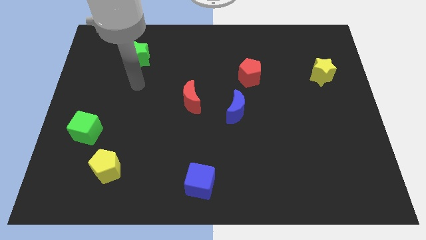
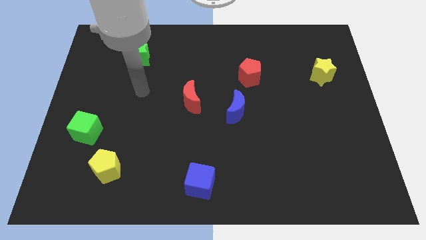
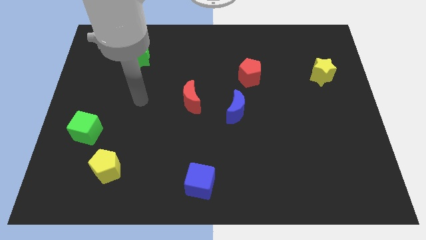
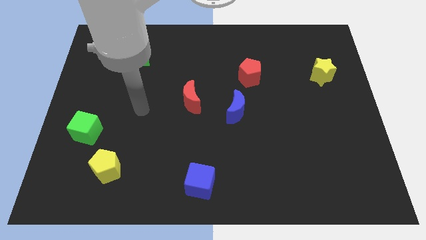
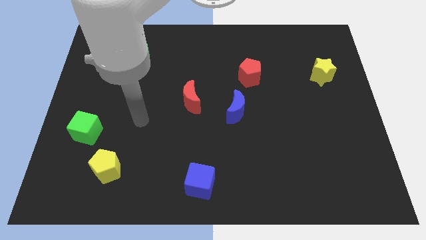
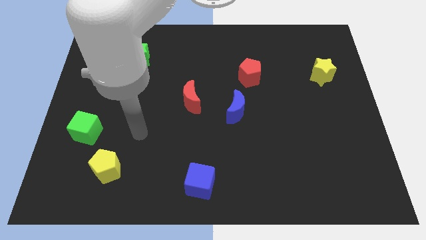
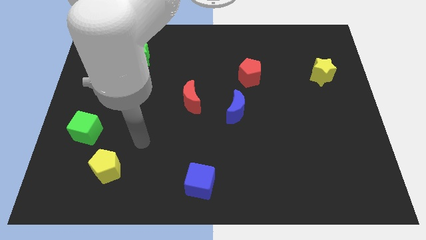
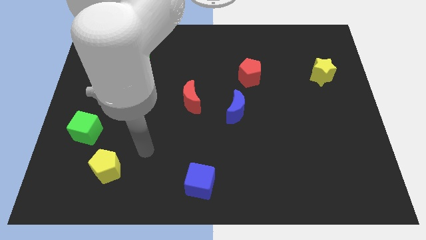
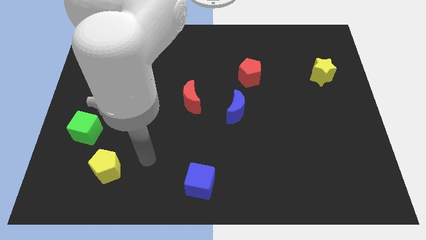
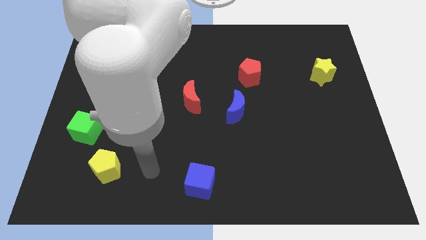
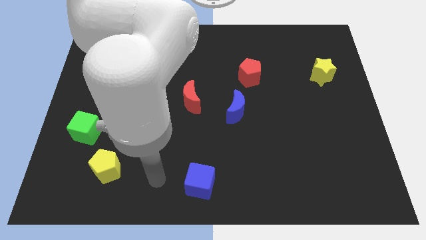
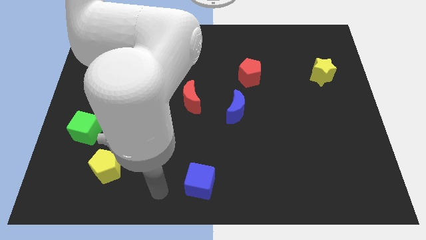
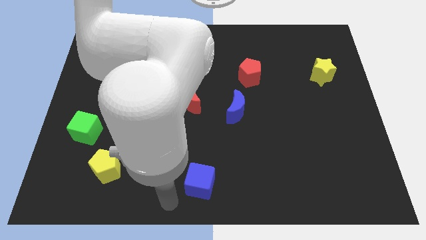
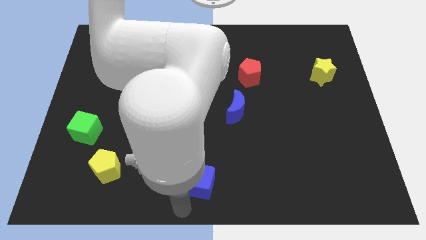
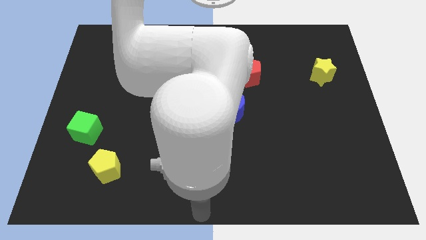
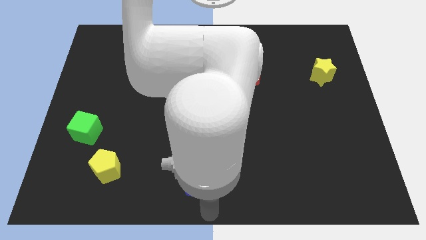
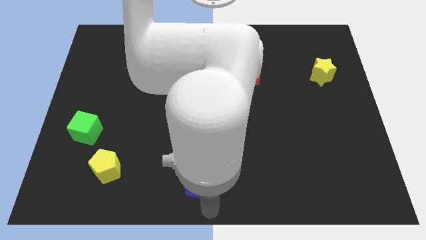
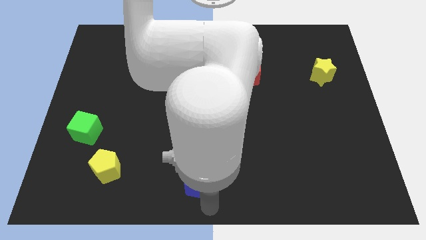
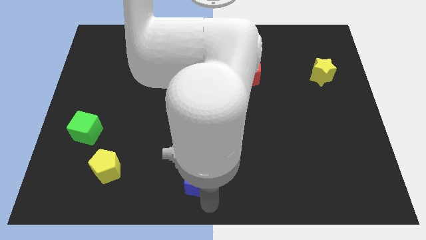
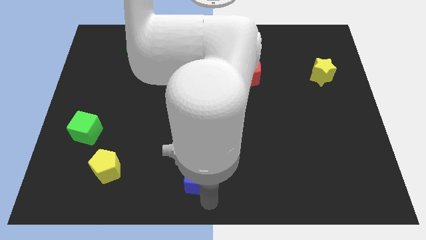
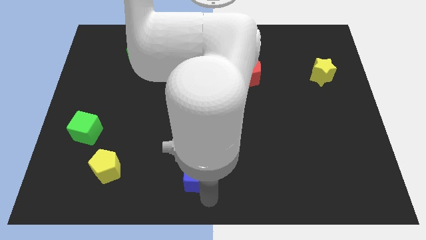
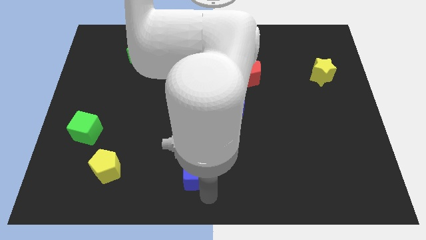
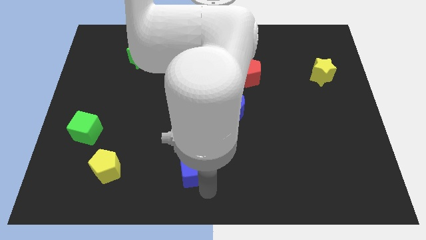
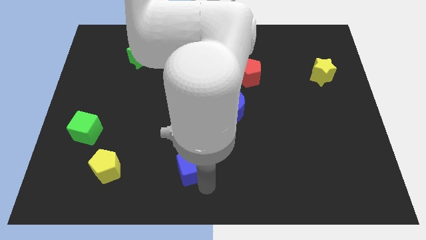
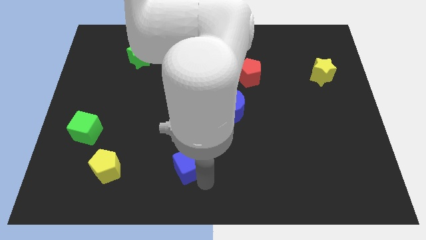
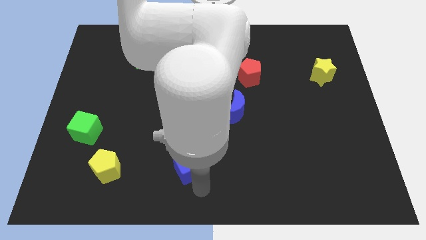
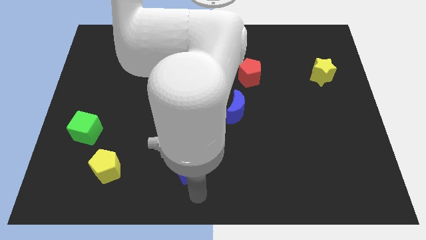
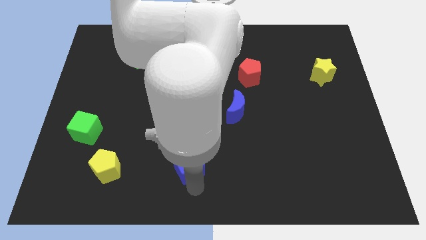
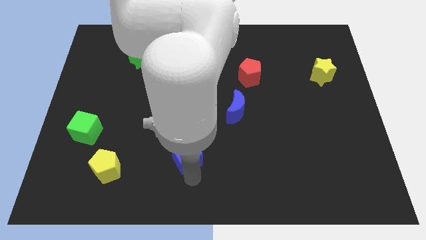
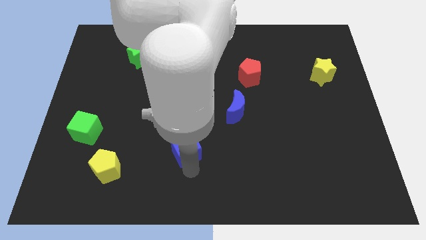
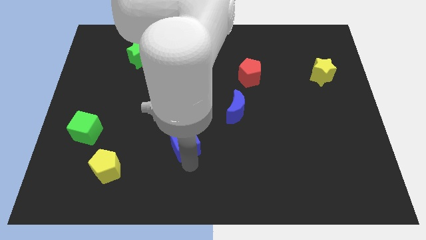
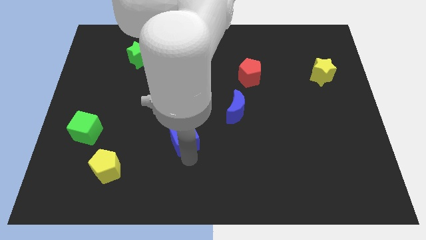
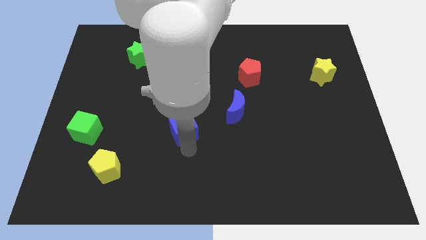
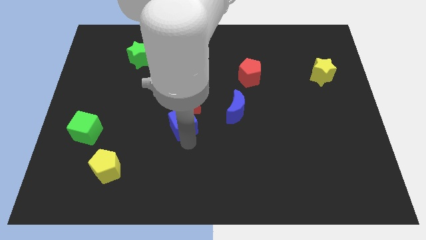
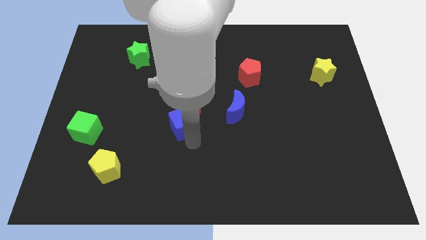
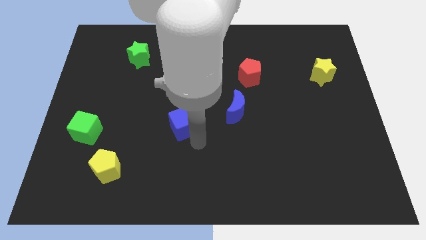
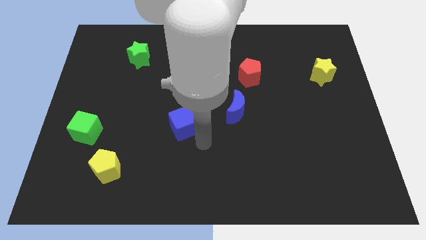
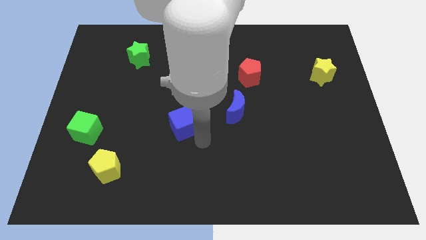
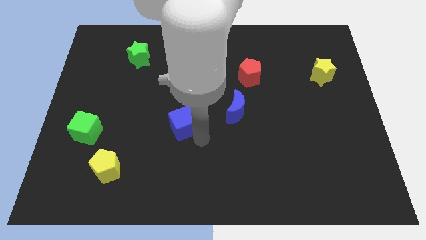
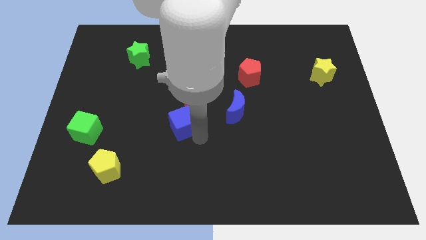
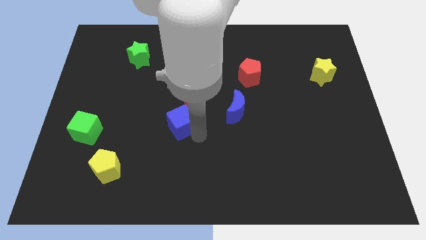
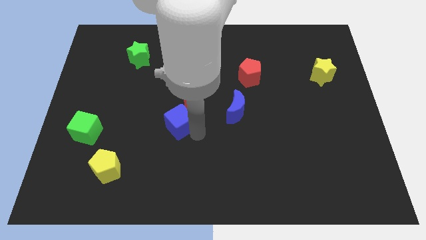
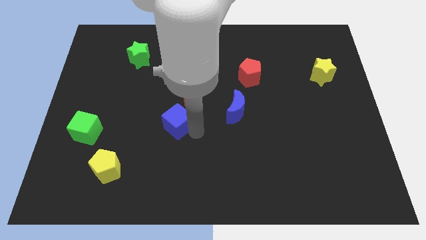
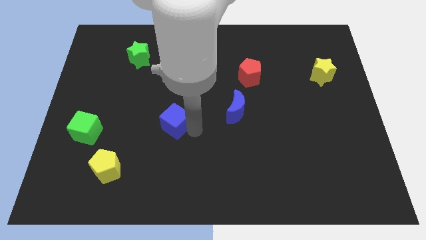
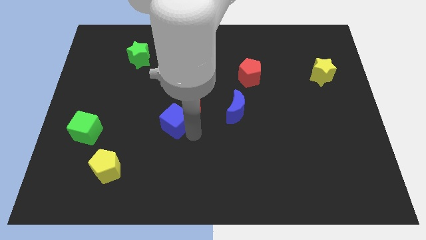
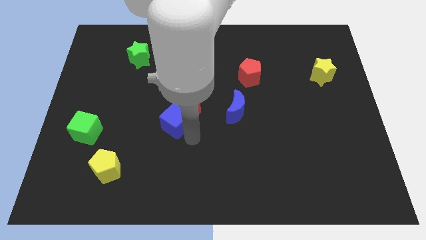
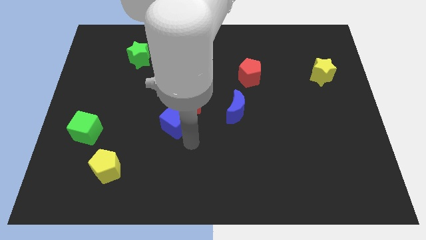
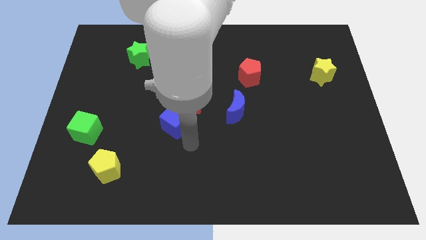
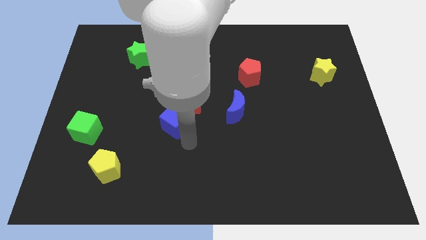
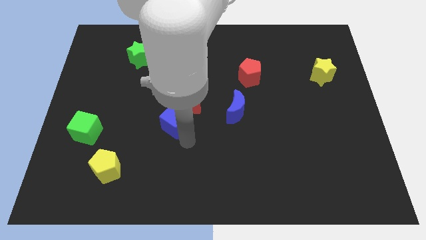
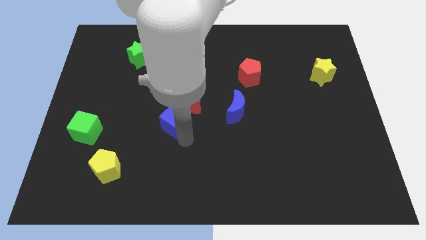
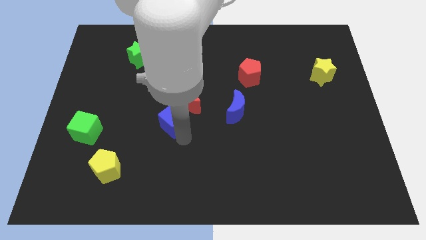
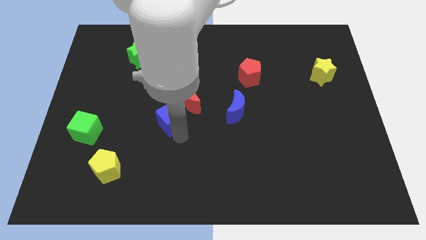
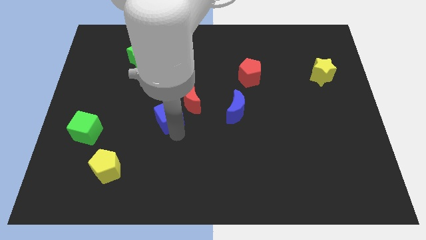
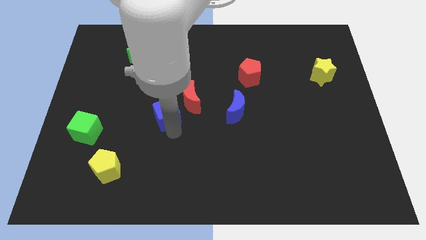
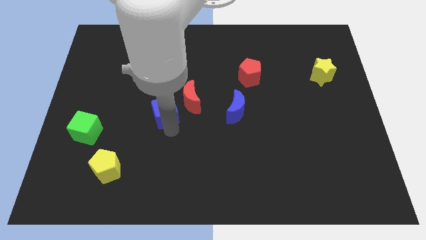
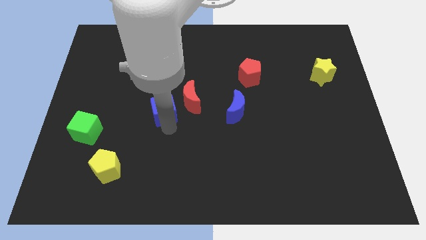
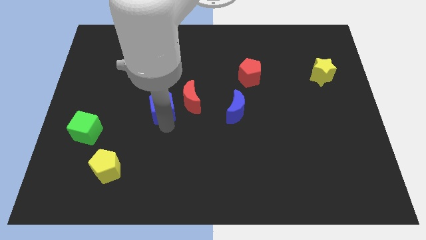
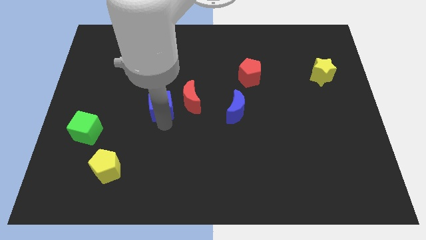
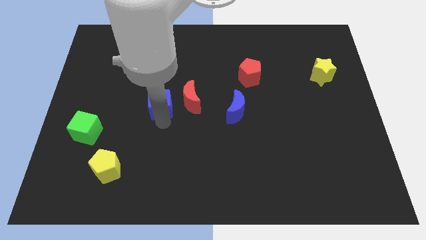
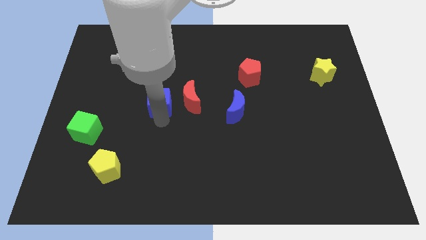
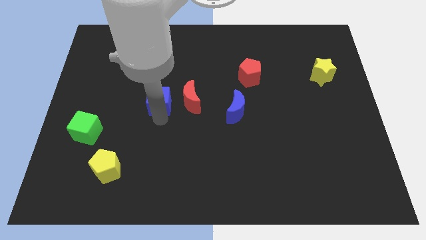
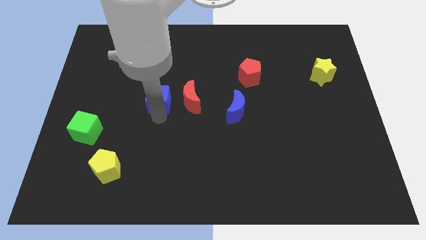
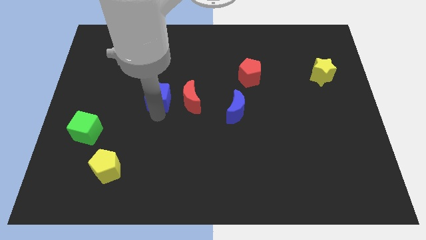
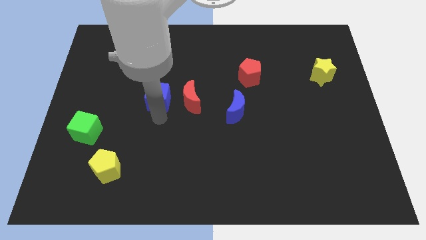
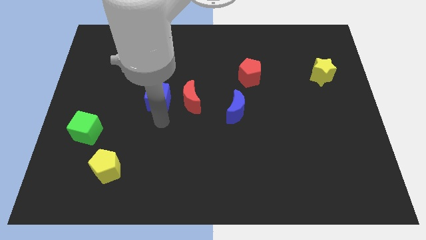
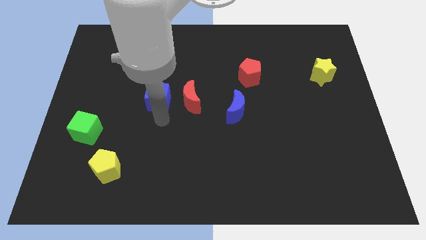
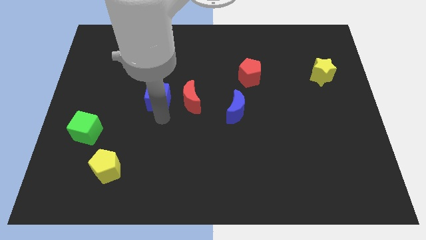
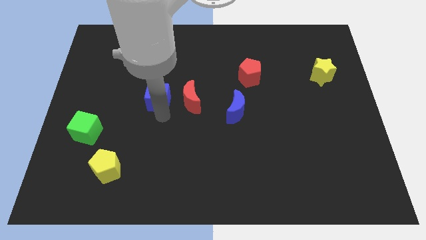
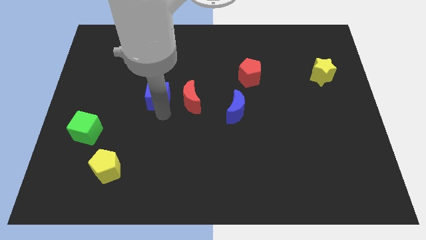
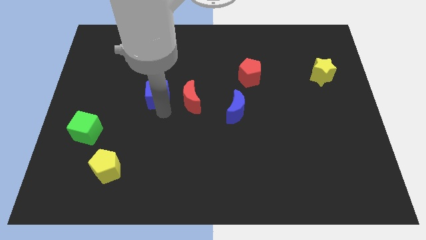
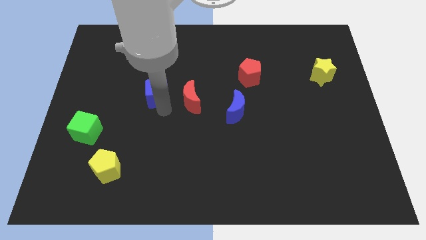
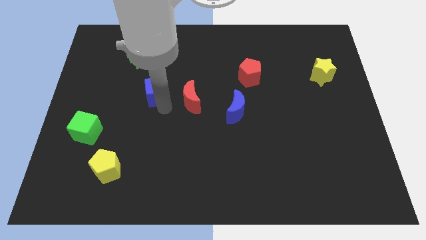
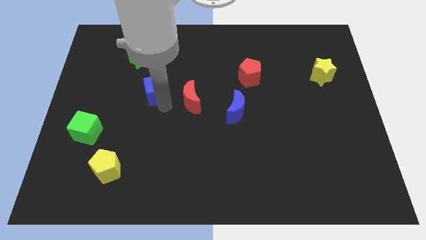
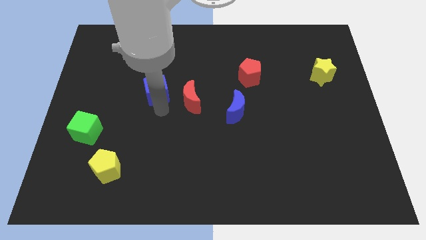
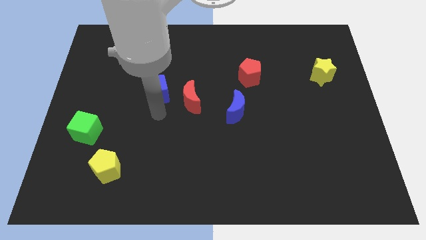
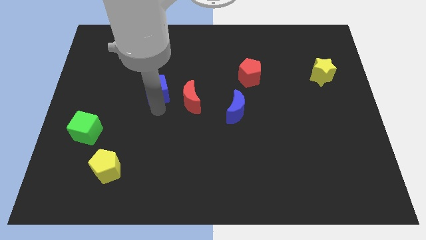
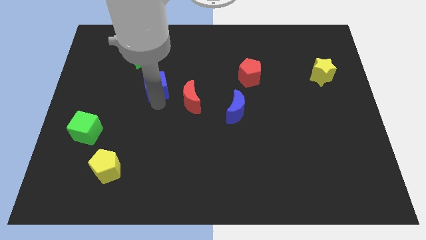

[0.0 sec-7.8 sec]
put the blue cube to the bottom right side of the green star
